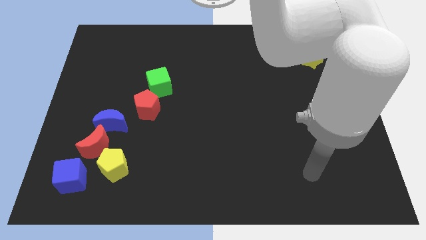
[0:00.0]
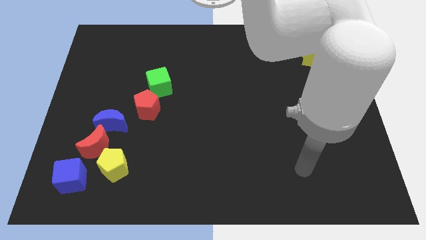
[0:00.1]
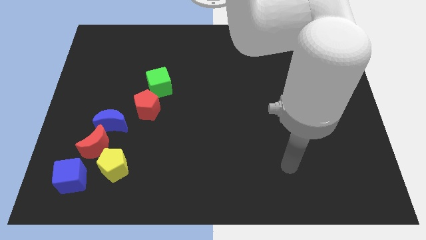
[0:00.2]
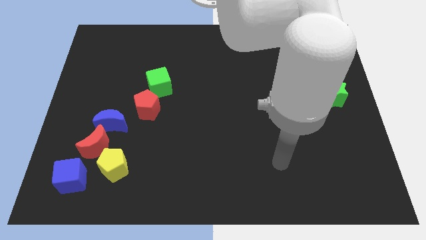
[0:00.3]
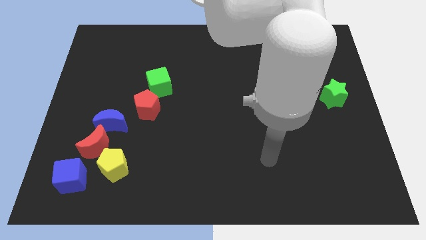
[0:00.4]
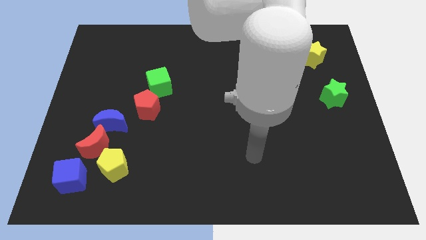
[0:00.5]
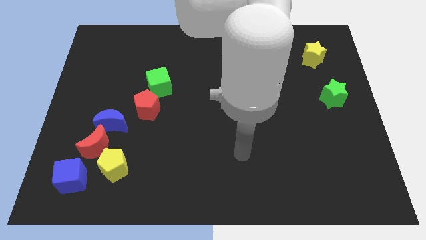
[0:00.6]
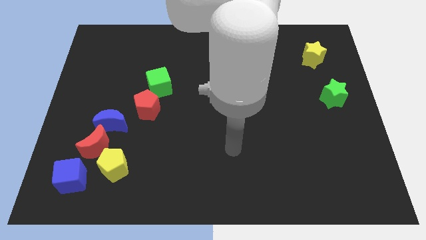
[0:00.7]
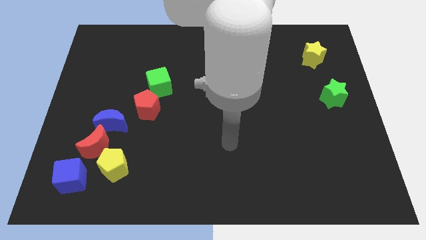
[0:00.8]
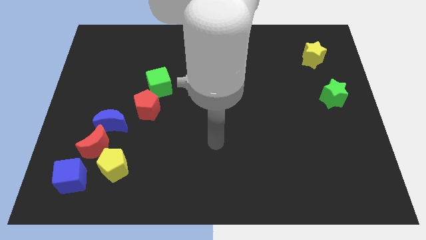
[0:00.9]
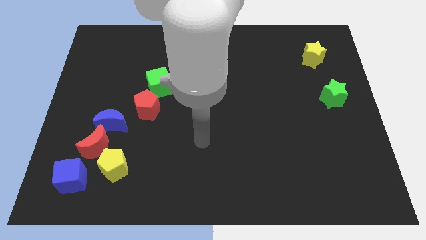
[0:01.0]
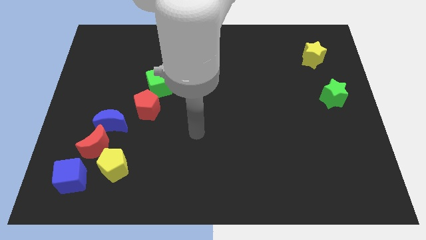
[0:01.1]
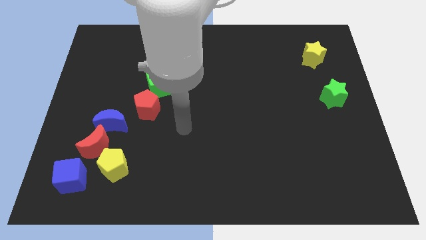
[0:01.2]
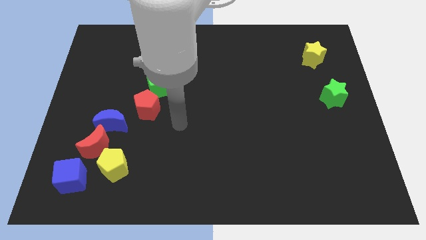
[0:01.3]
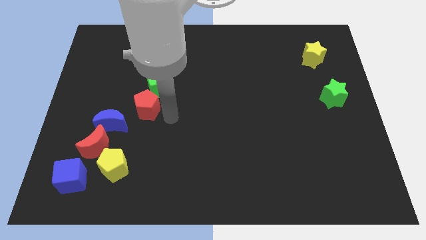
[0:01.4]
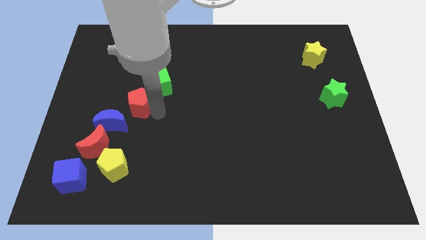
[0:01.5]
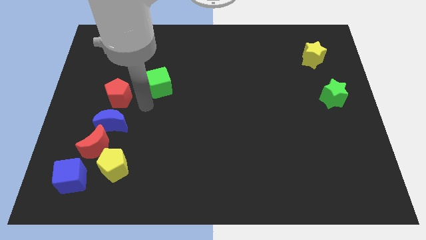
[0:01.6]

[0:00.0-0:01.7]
move the green cube away from the red pentagon

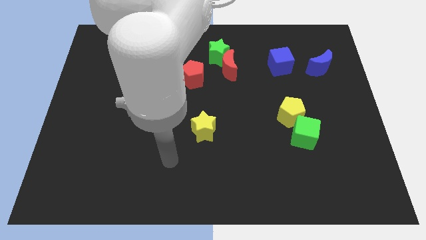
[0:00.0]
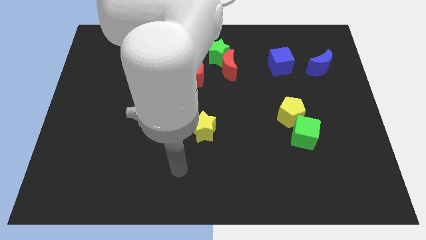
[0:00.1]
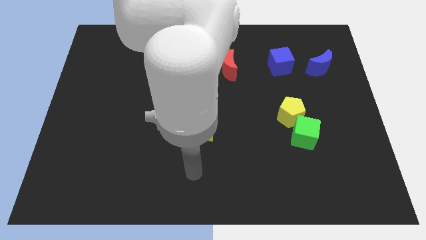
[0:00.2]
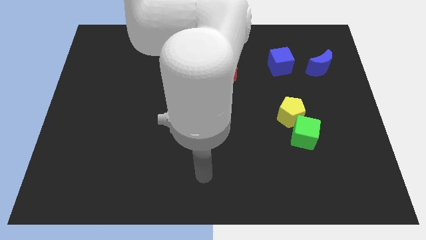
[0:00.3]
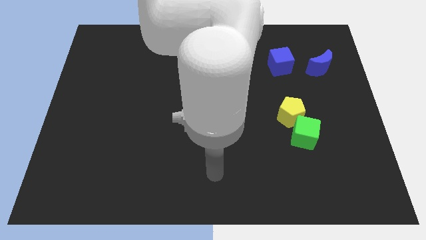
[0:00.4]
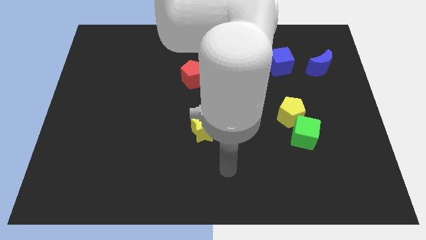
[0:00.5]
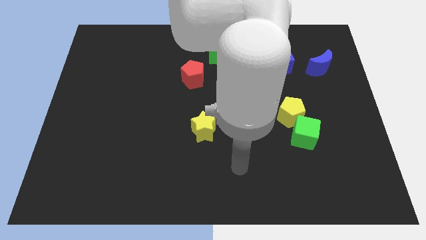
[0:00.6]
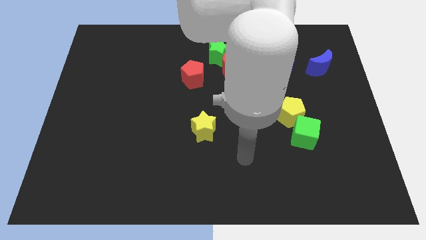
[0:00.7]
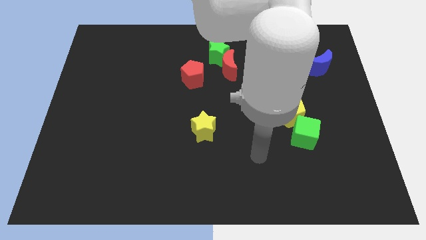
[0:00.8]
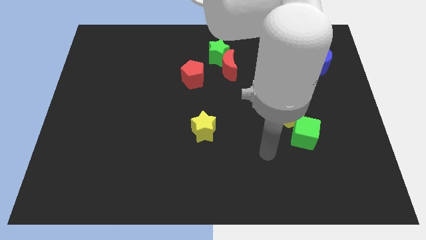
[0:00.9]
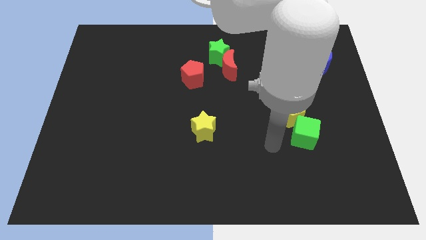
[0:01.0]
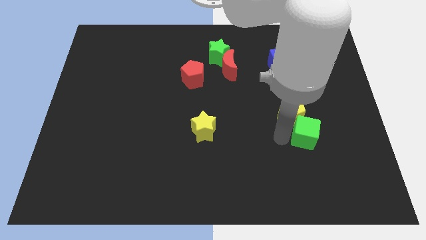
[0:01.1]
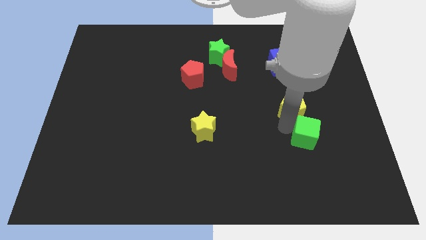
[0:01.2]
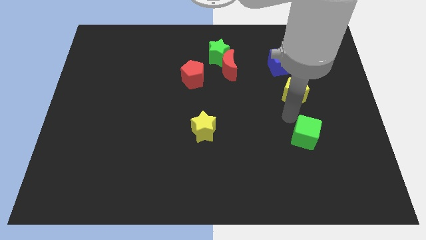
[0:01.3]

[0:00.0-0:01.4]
move the green cube away from the yellow pentagon

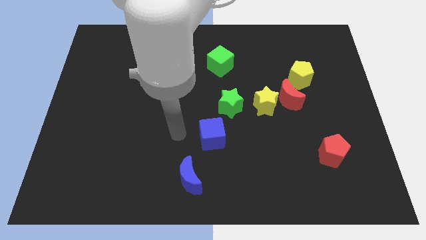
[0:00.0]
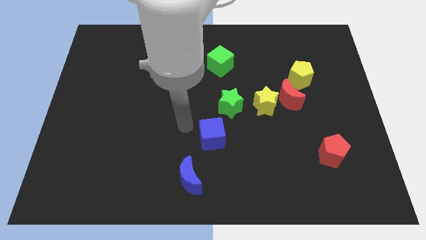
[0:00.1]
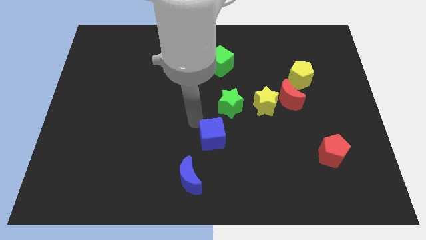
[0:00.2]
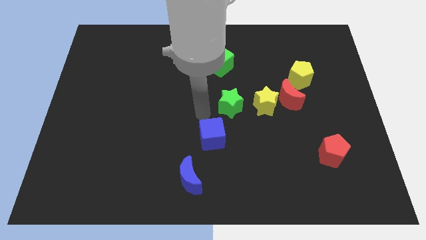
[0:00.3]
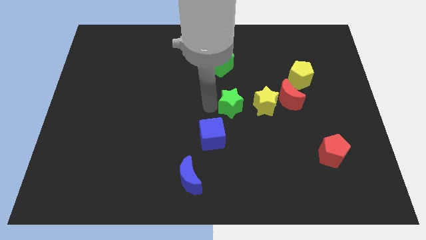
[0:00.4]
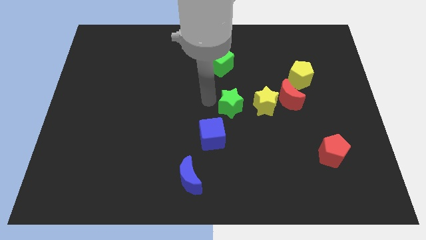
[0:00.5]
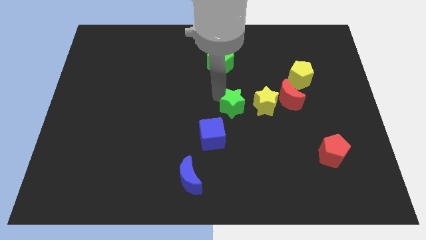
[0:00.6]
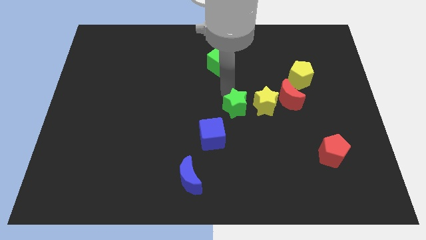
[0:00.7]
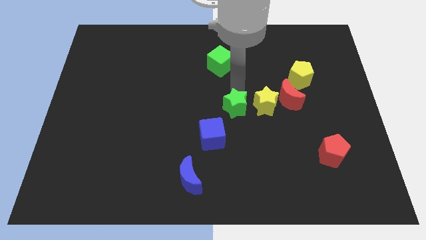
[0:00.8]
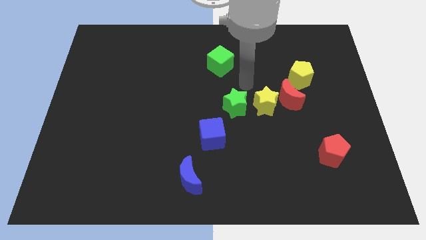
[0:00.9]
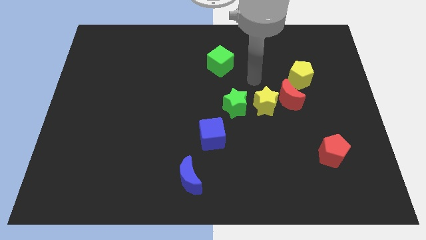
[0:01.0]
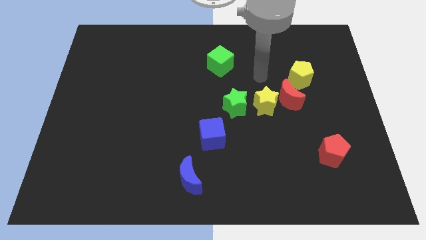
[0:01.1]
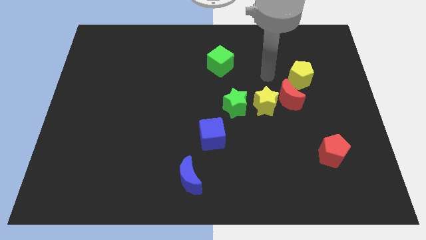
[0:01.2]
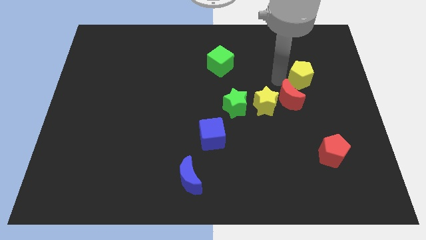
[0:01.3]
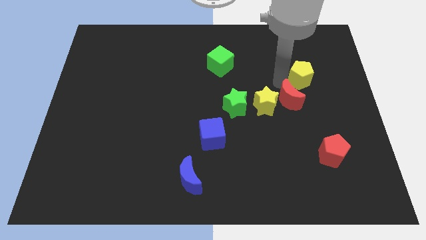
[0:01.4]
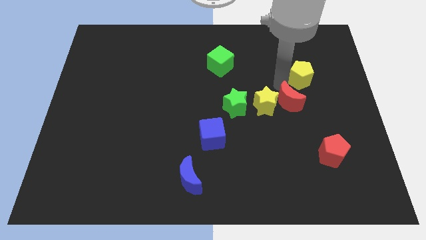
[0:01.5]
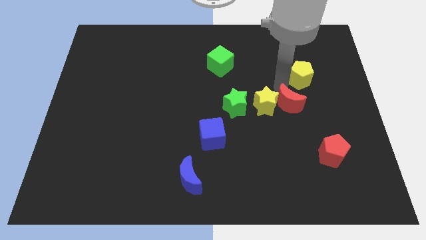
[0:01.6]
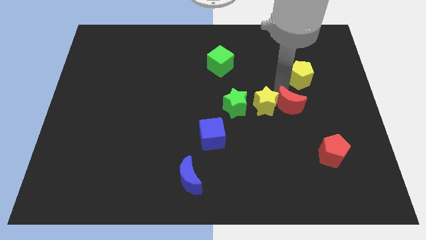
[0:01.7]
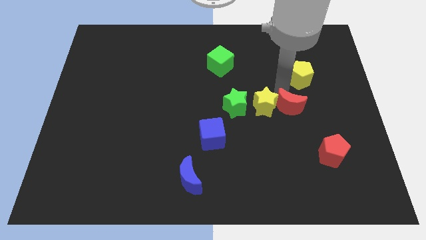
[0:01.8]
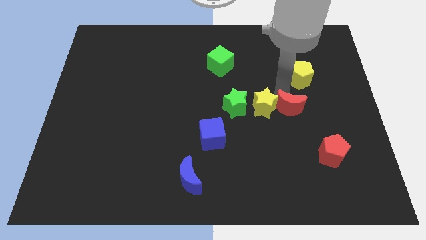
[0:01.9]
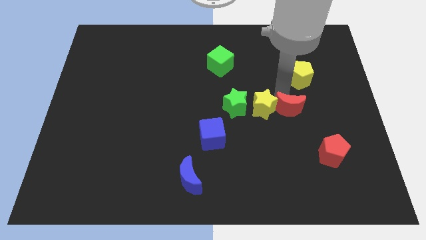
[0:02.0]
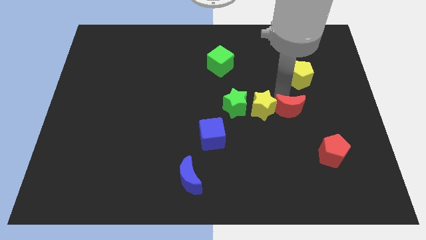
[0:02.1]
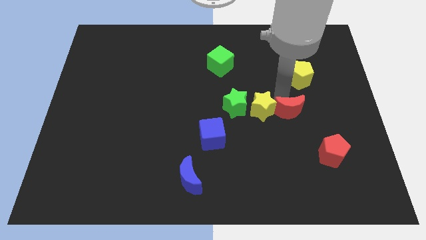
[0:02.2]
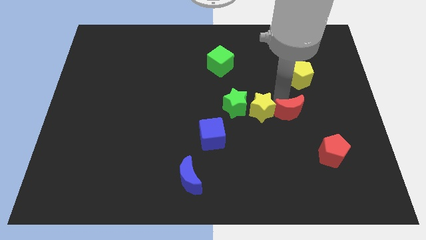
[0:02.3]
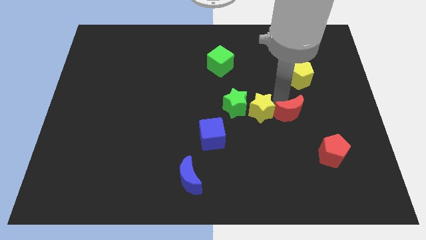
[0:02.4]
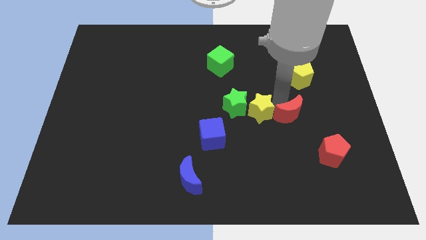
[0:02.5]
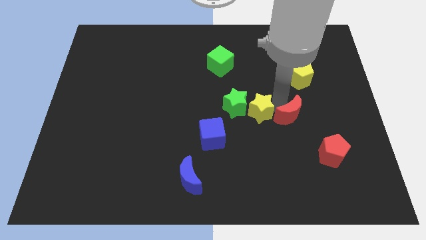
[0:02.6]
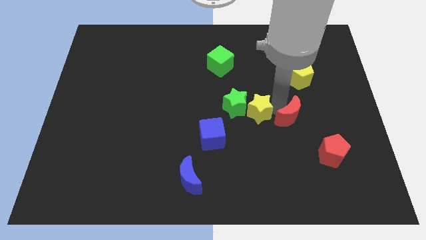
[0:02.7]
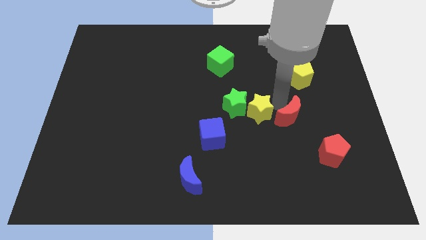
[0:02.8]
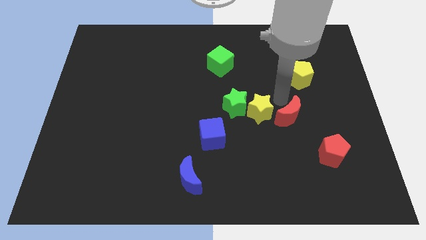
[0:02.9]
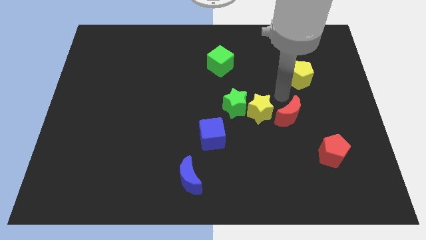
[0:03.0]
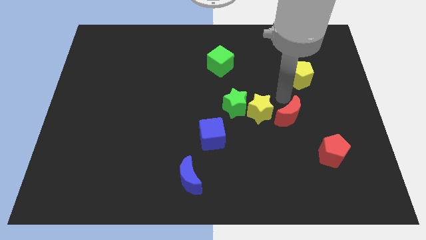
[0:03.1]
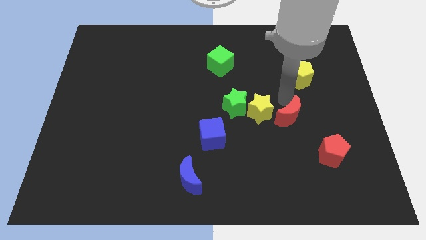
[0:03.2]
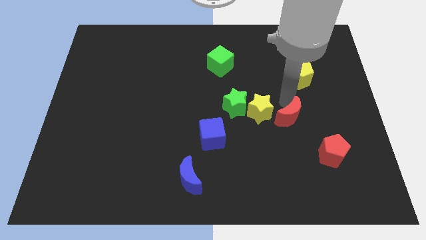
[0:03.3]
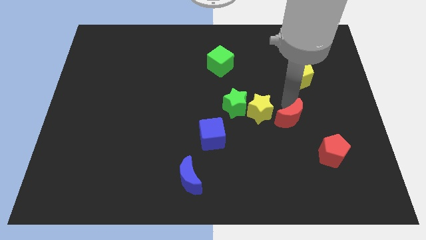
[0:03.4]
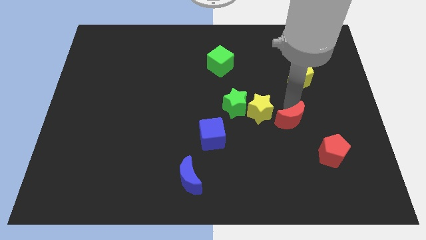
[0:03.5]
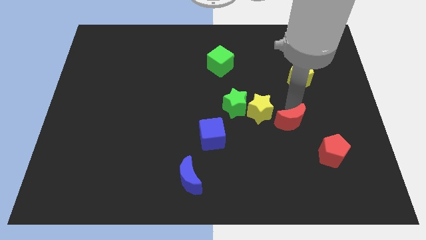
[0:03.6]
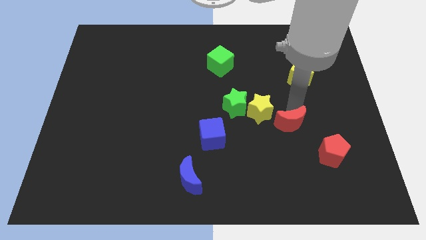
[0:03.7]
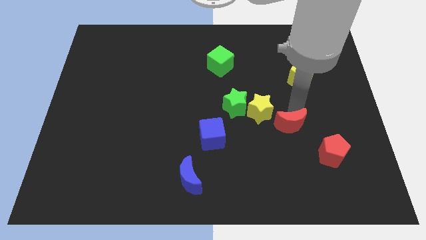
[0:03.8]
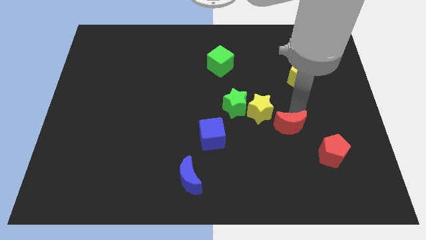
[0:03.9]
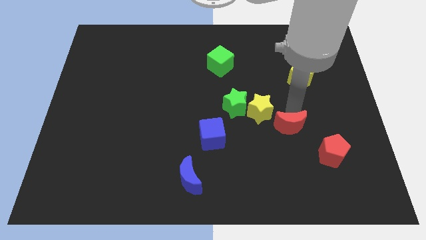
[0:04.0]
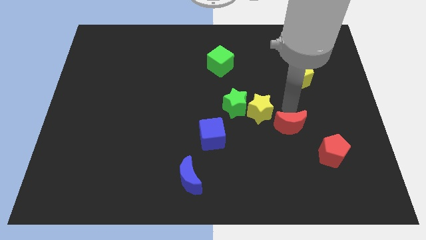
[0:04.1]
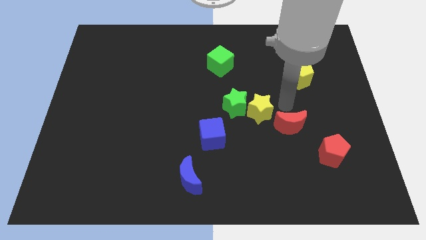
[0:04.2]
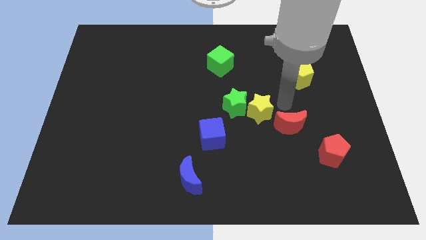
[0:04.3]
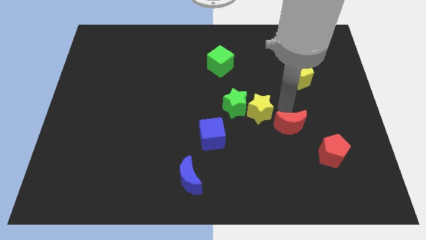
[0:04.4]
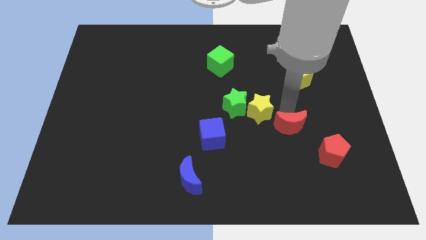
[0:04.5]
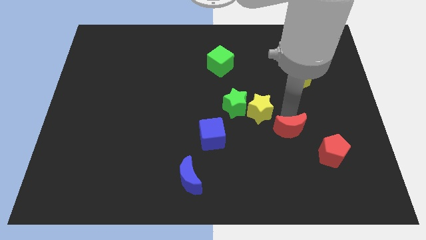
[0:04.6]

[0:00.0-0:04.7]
separate the red moon from the yellow star and yellow pentagon

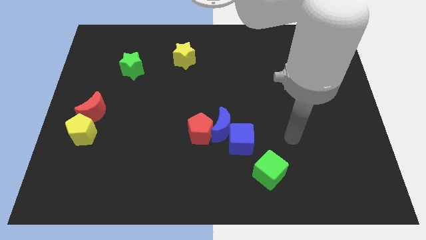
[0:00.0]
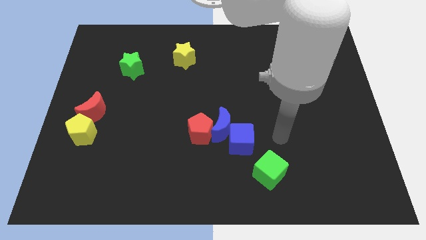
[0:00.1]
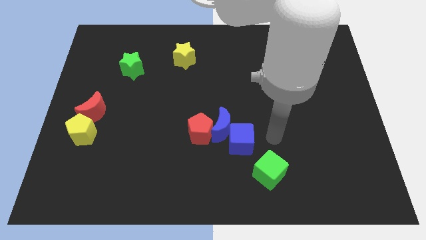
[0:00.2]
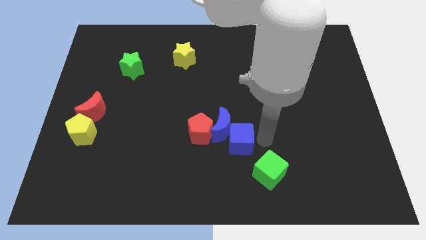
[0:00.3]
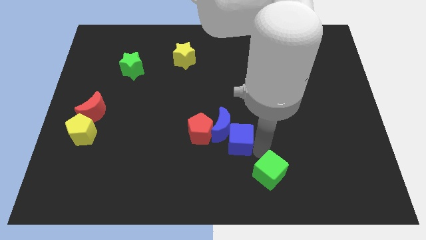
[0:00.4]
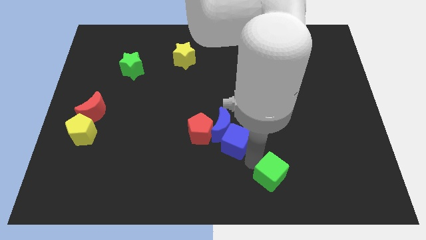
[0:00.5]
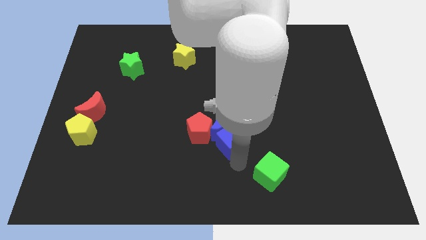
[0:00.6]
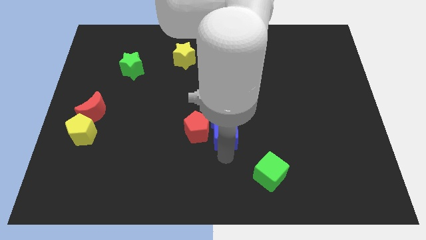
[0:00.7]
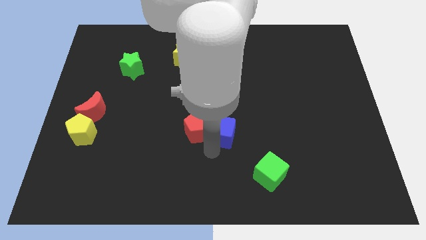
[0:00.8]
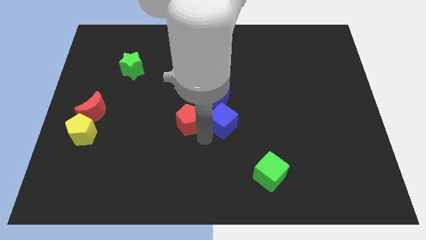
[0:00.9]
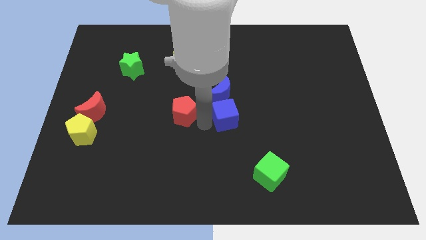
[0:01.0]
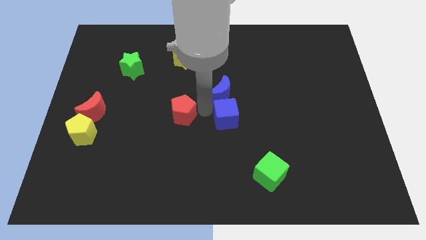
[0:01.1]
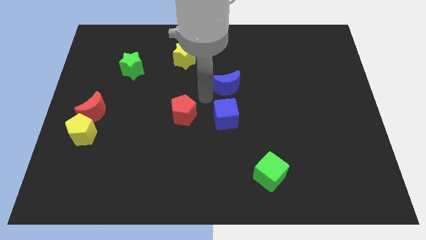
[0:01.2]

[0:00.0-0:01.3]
separate the blue moon from the red pentagon and blue cube

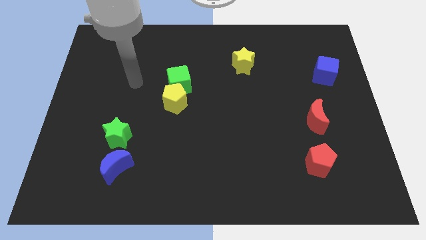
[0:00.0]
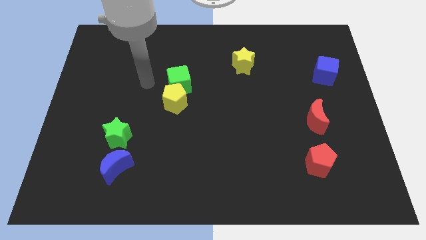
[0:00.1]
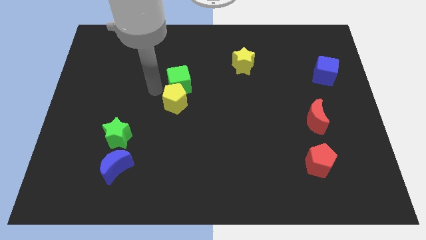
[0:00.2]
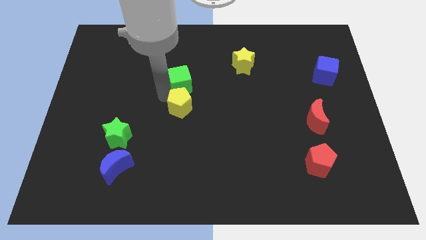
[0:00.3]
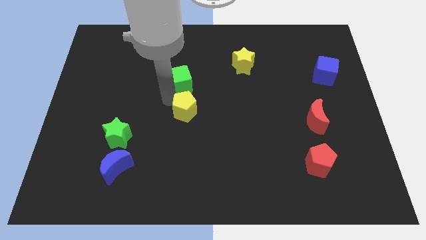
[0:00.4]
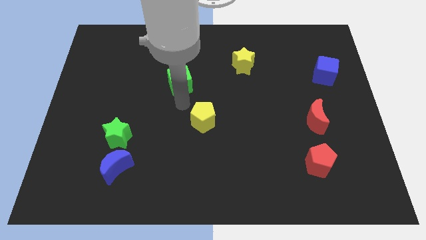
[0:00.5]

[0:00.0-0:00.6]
pull the green cube apart from the yellow pentagon
